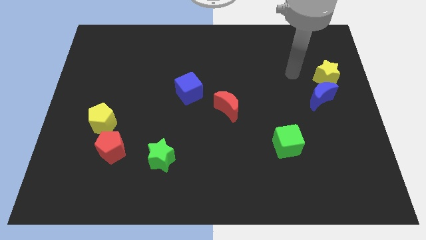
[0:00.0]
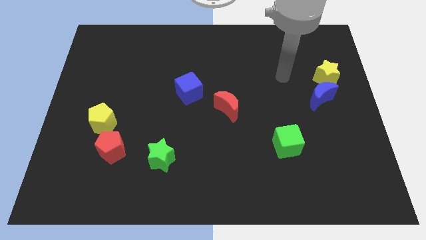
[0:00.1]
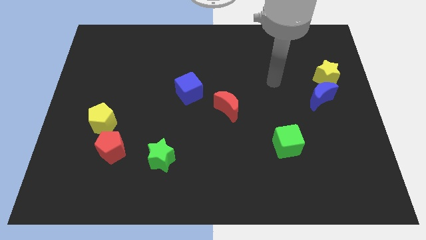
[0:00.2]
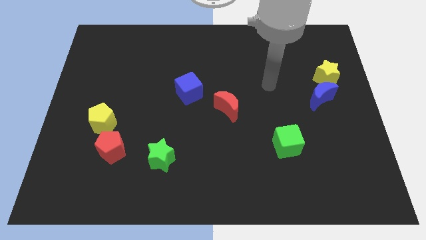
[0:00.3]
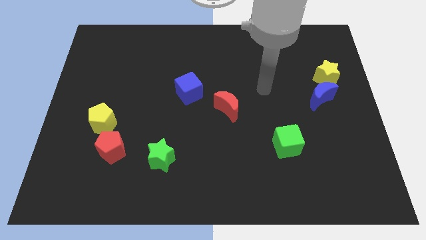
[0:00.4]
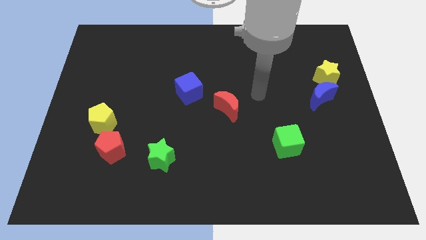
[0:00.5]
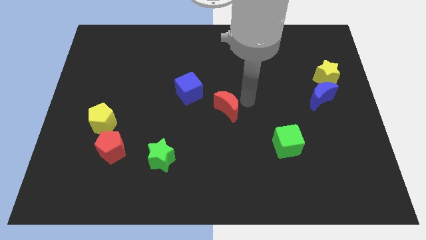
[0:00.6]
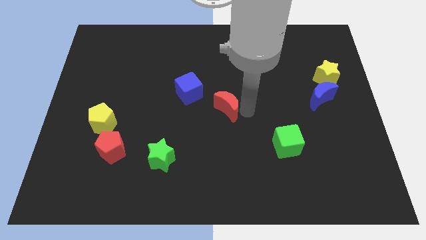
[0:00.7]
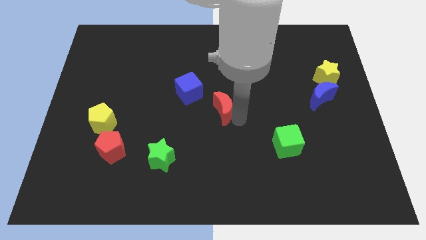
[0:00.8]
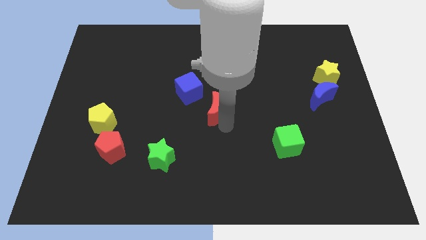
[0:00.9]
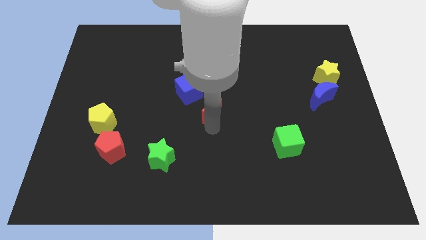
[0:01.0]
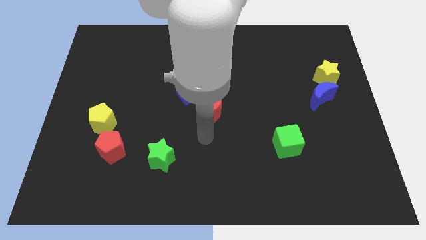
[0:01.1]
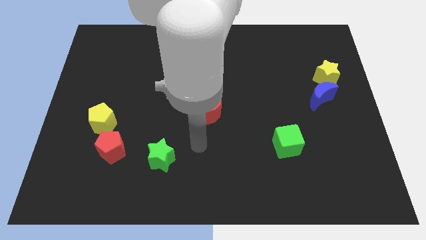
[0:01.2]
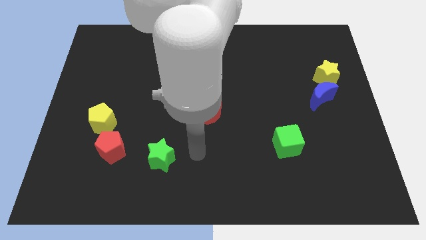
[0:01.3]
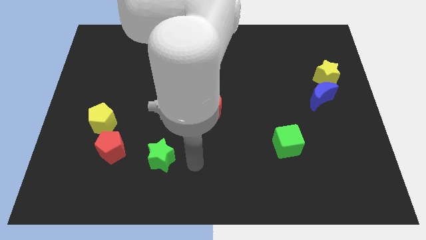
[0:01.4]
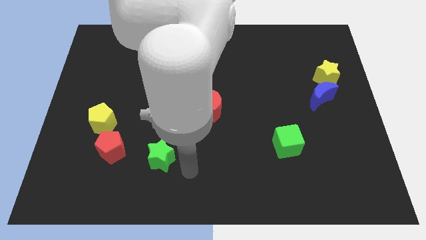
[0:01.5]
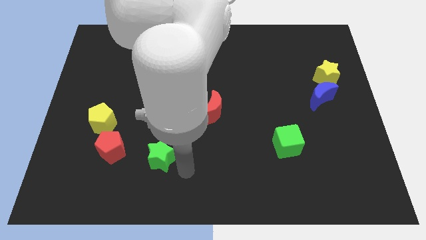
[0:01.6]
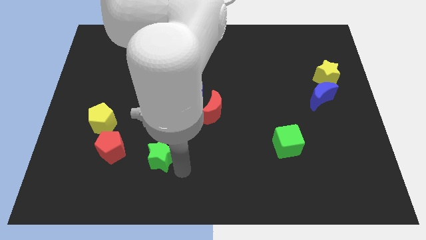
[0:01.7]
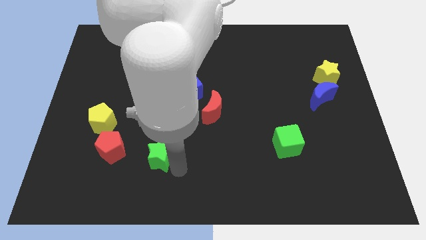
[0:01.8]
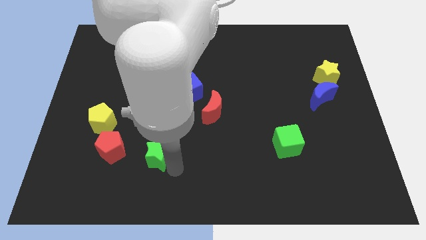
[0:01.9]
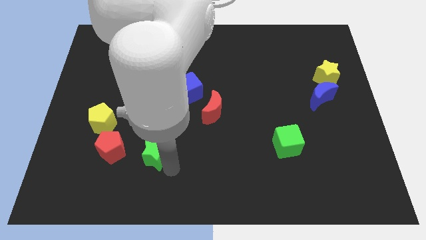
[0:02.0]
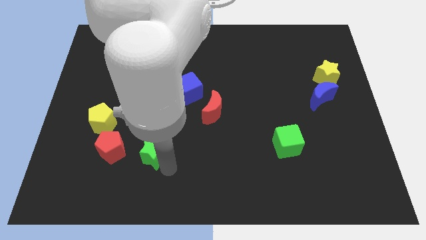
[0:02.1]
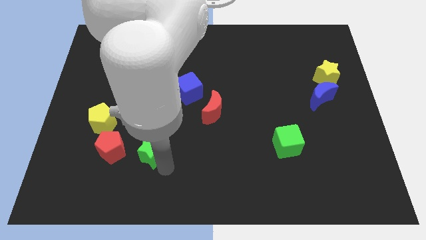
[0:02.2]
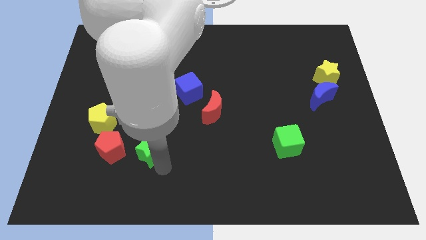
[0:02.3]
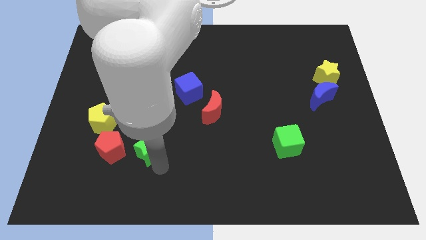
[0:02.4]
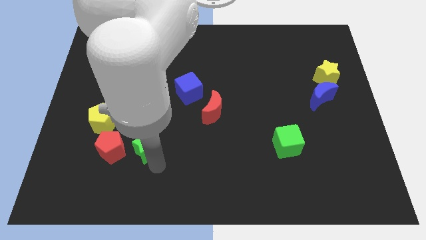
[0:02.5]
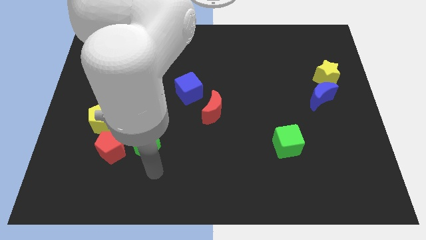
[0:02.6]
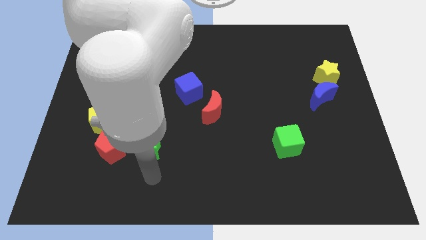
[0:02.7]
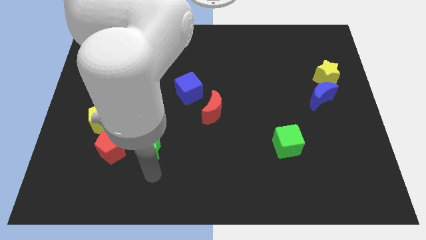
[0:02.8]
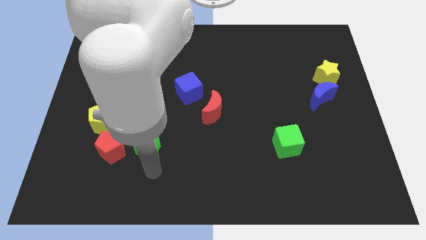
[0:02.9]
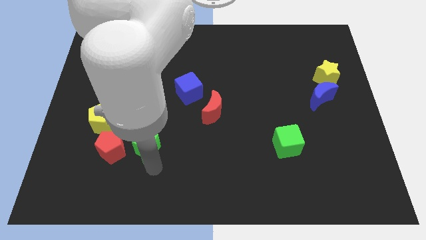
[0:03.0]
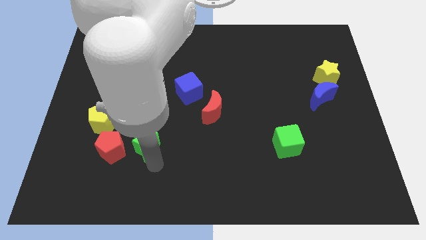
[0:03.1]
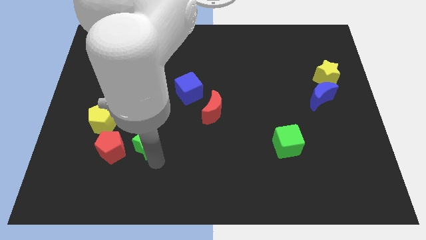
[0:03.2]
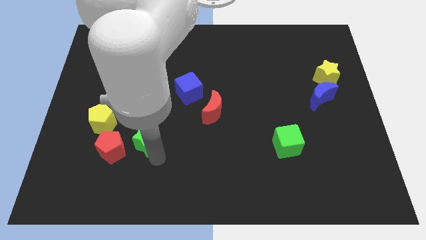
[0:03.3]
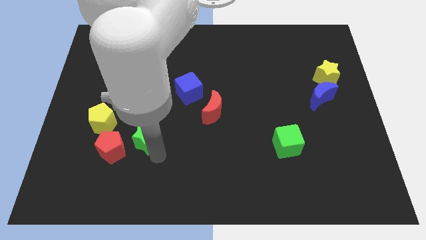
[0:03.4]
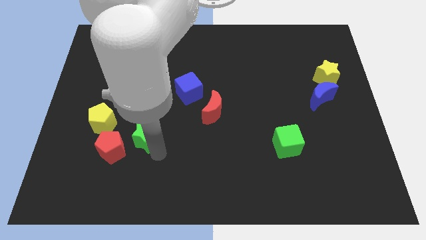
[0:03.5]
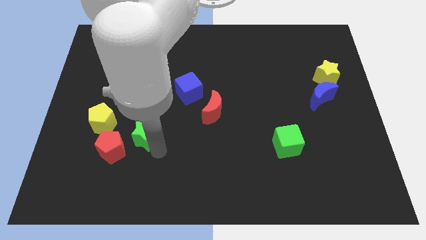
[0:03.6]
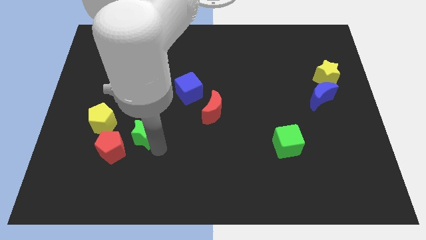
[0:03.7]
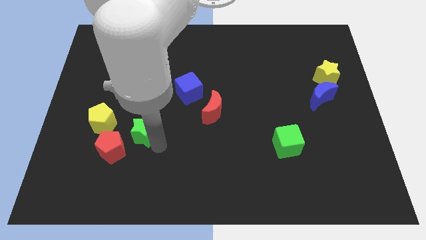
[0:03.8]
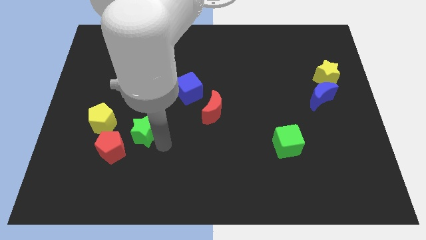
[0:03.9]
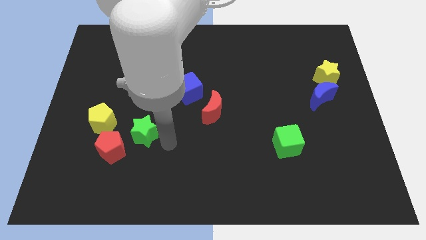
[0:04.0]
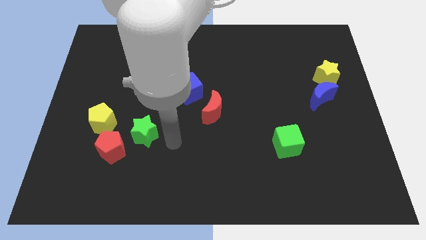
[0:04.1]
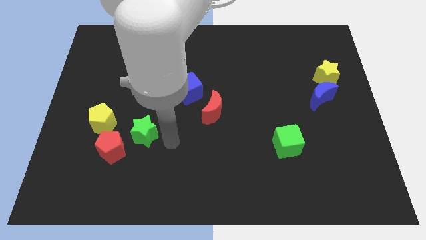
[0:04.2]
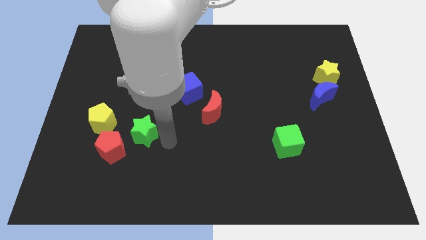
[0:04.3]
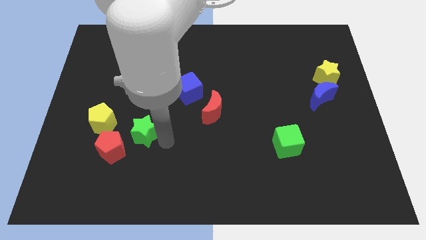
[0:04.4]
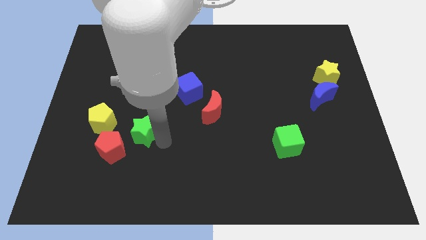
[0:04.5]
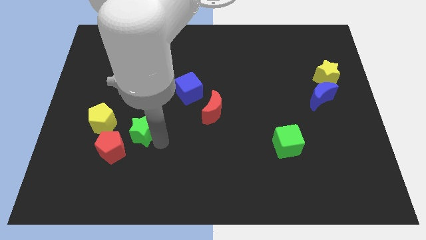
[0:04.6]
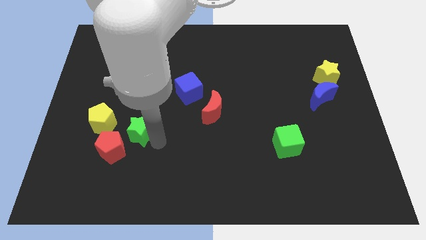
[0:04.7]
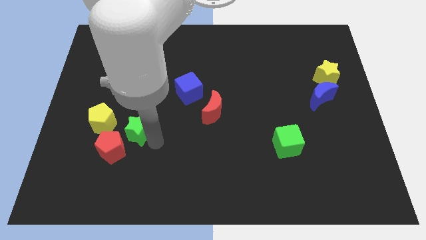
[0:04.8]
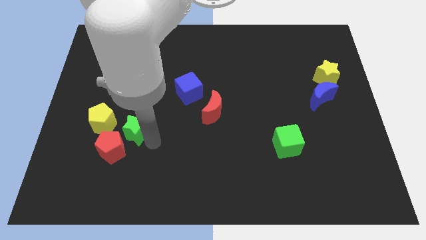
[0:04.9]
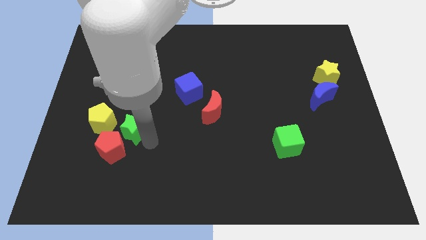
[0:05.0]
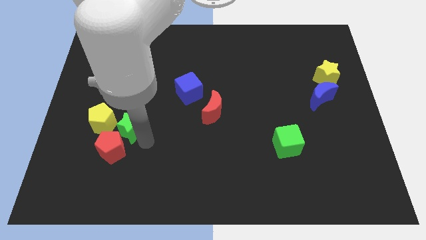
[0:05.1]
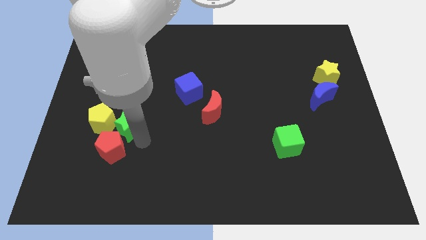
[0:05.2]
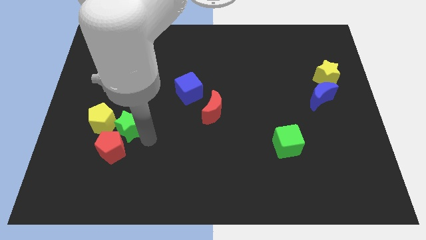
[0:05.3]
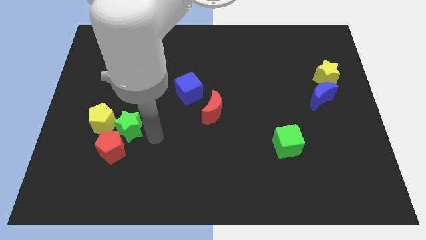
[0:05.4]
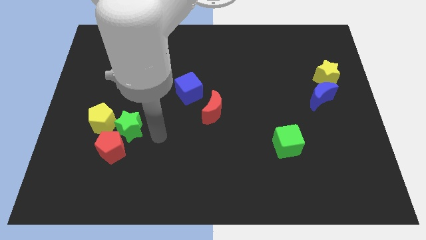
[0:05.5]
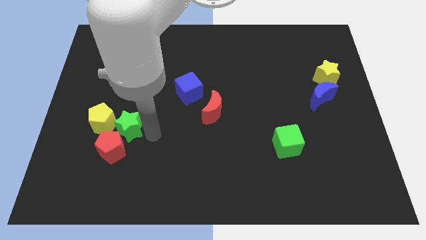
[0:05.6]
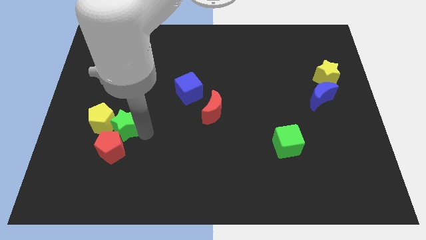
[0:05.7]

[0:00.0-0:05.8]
push the green star close to the yellow pentagon

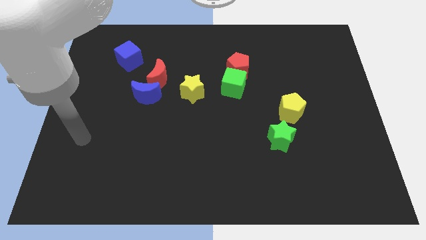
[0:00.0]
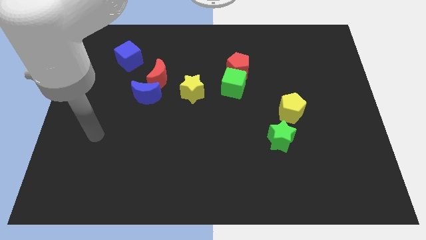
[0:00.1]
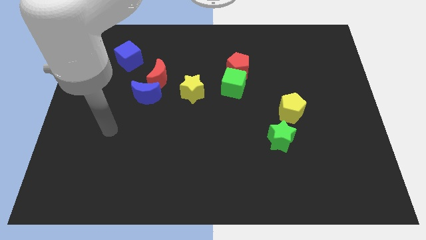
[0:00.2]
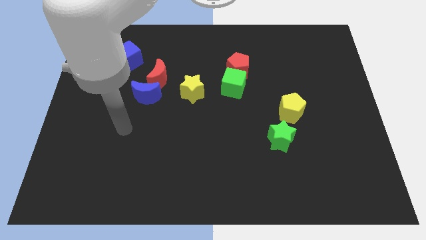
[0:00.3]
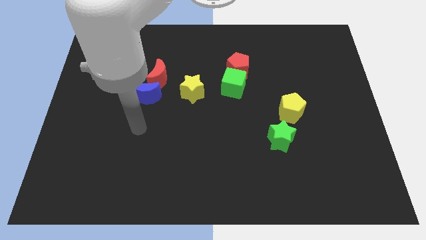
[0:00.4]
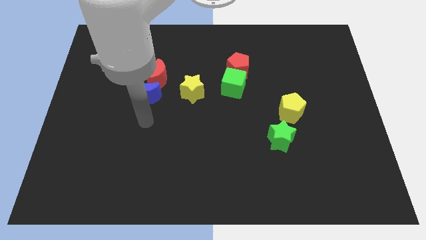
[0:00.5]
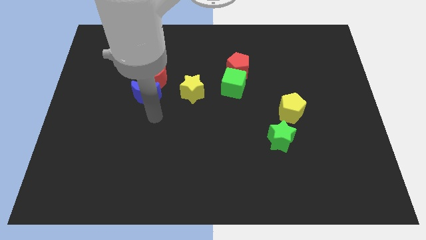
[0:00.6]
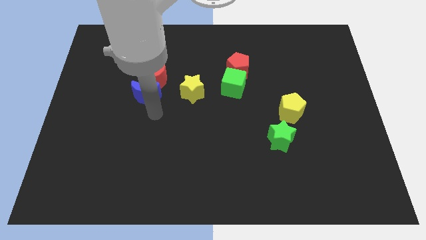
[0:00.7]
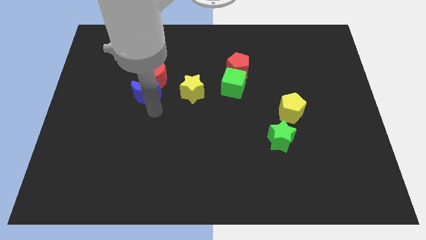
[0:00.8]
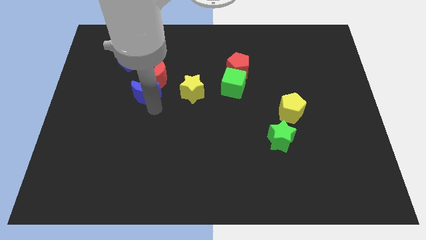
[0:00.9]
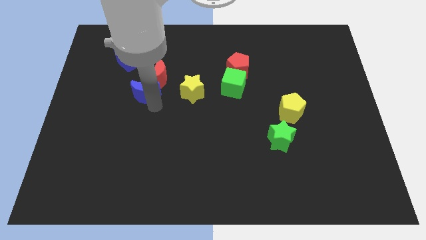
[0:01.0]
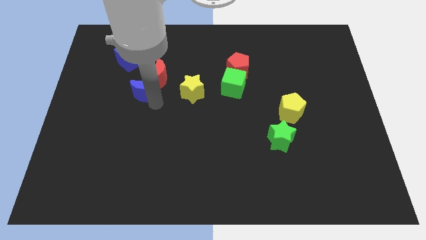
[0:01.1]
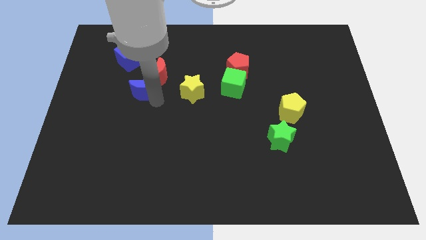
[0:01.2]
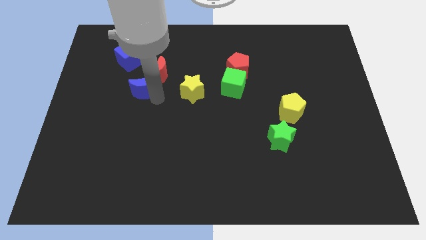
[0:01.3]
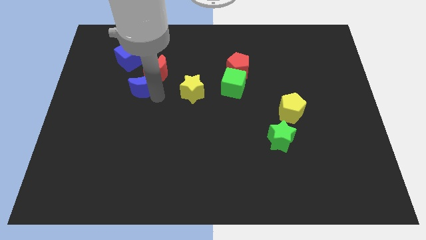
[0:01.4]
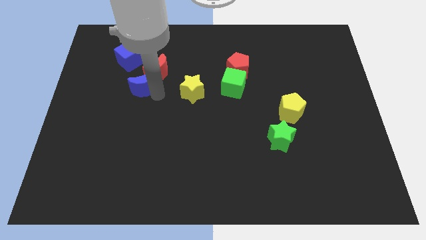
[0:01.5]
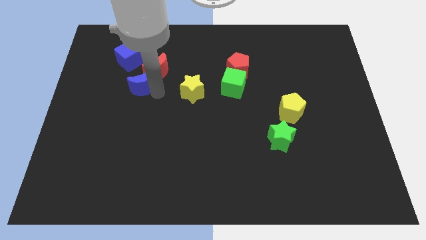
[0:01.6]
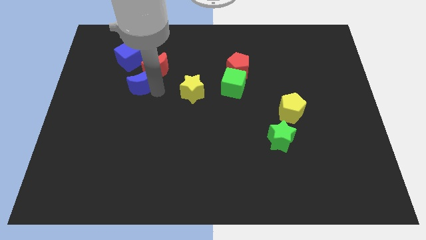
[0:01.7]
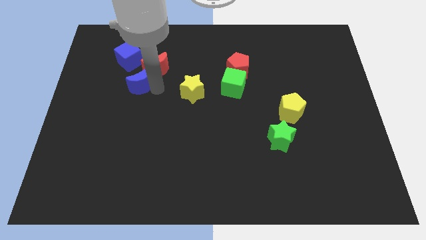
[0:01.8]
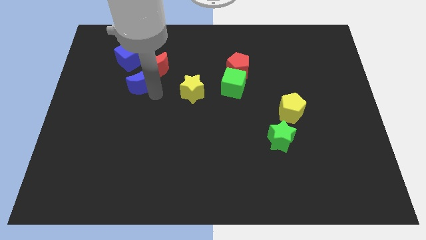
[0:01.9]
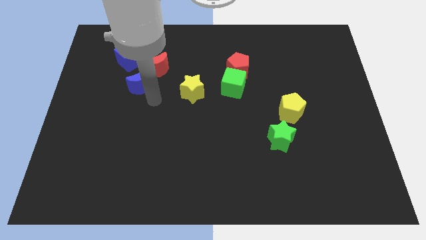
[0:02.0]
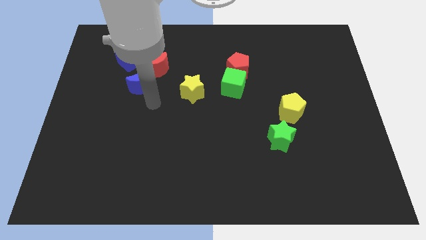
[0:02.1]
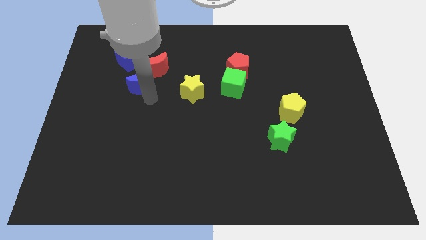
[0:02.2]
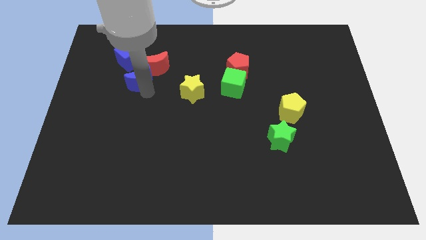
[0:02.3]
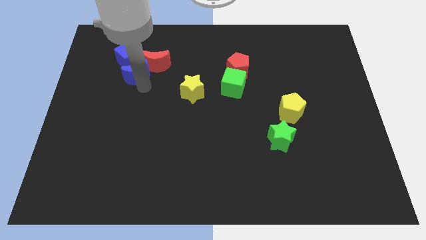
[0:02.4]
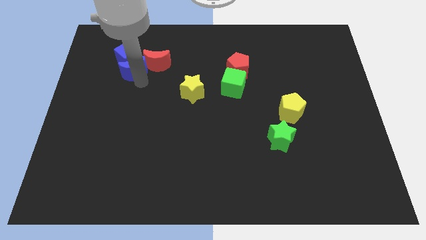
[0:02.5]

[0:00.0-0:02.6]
move the blue moon close to the blue cube
